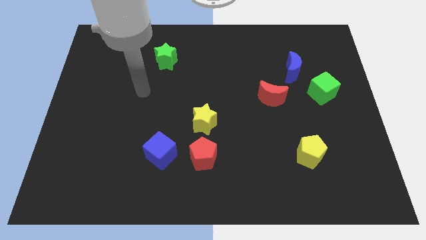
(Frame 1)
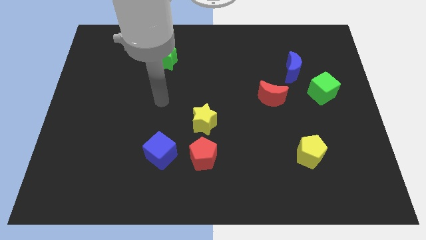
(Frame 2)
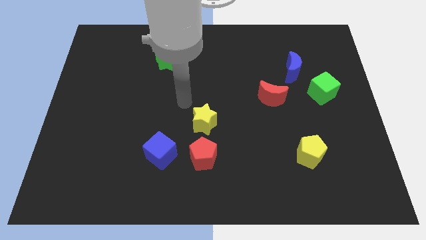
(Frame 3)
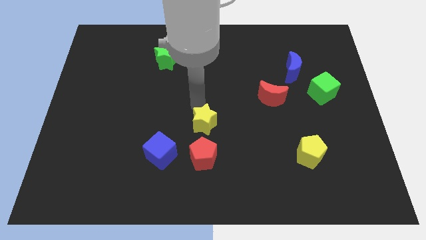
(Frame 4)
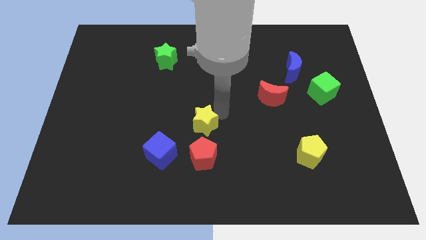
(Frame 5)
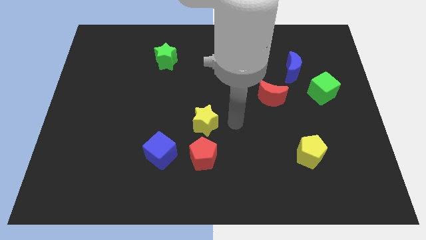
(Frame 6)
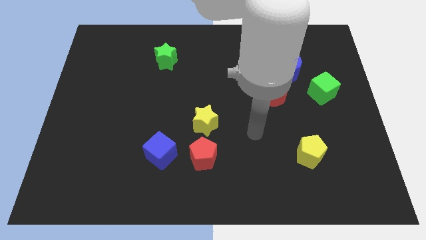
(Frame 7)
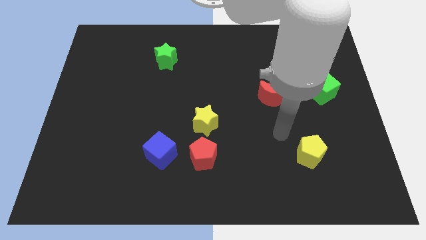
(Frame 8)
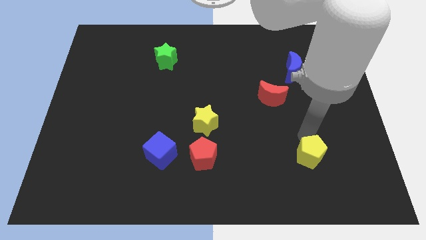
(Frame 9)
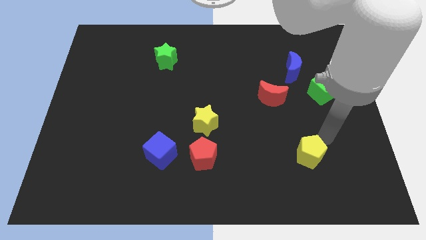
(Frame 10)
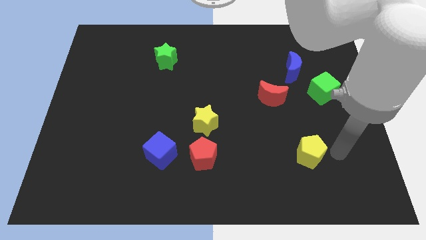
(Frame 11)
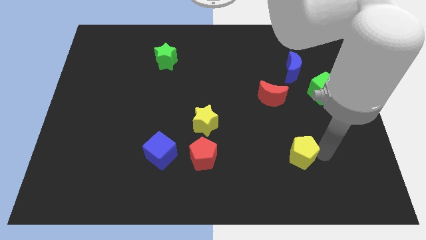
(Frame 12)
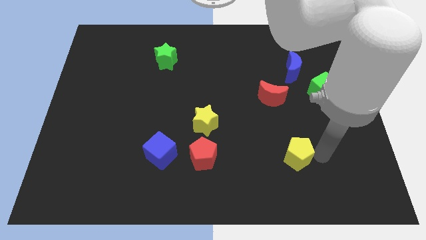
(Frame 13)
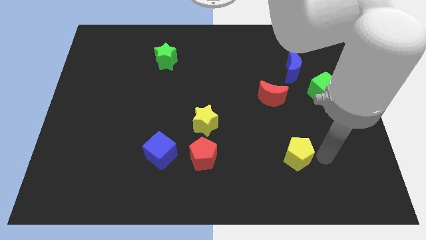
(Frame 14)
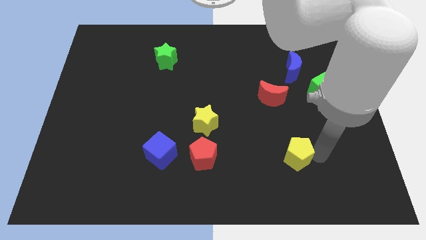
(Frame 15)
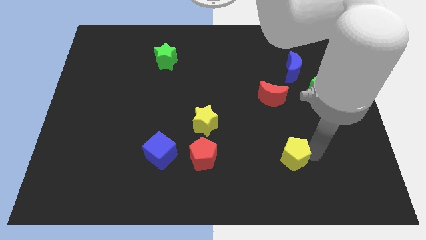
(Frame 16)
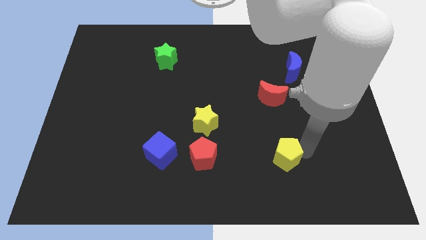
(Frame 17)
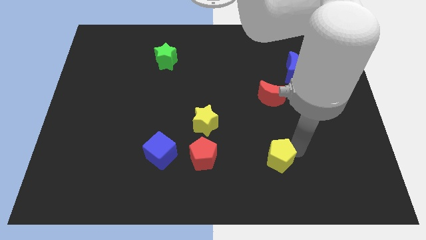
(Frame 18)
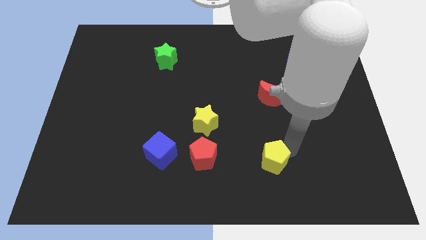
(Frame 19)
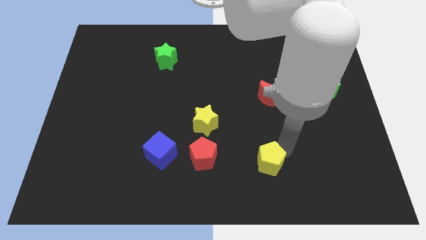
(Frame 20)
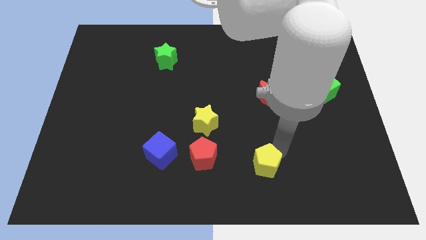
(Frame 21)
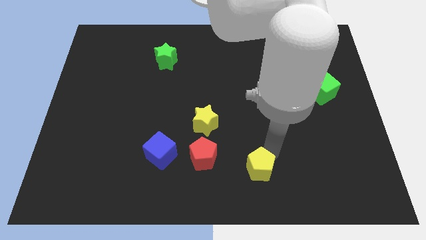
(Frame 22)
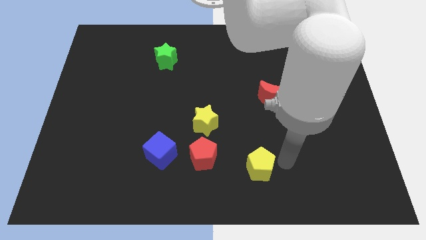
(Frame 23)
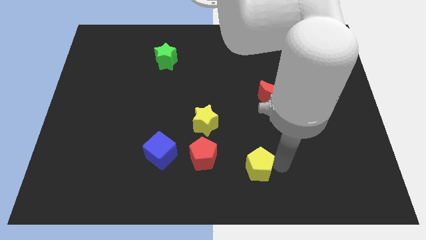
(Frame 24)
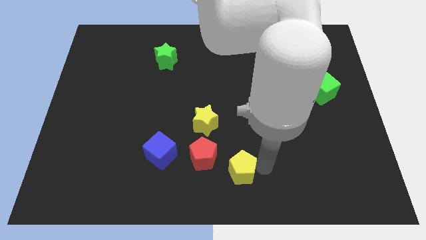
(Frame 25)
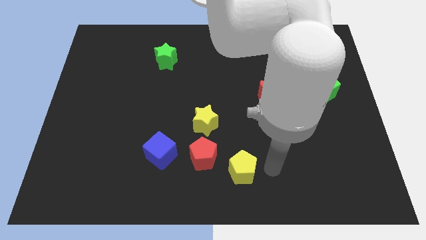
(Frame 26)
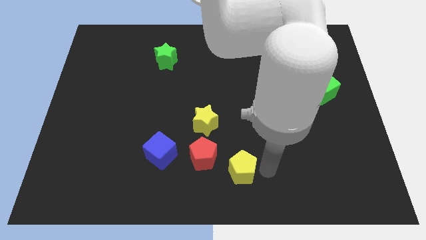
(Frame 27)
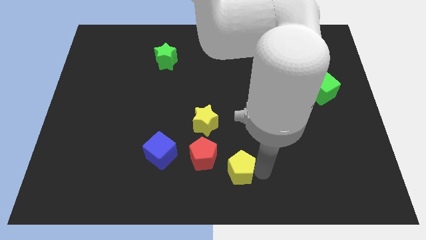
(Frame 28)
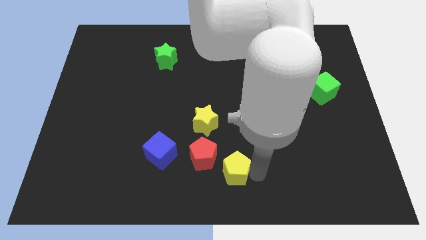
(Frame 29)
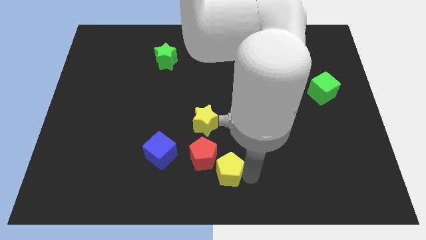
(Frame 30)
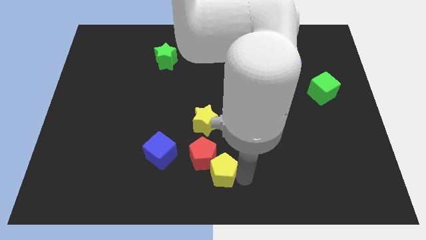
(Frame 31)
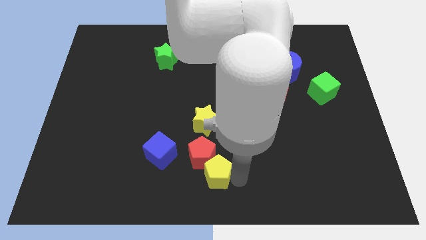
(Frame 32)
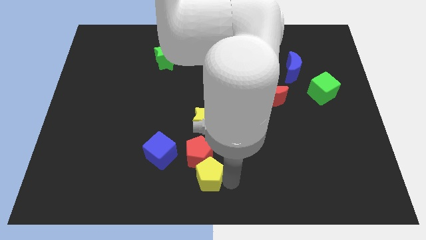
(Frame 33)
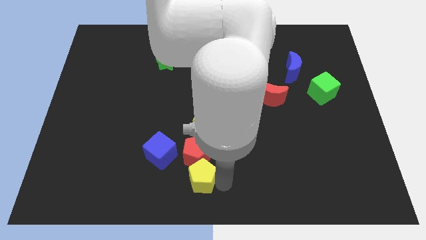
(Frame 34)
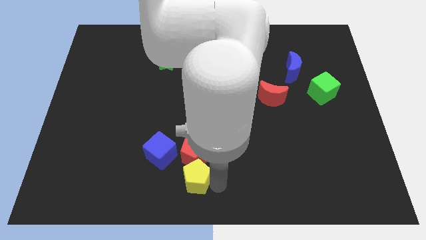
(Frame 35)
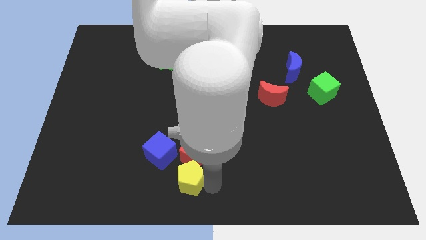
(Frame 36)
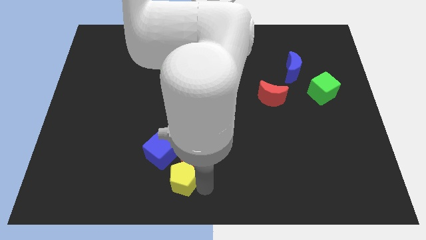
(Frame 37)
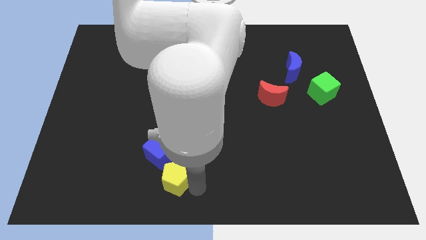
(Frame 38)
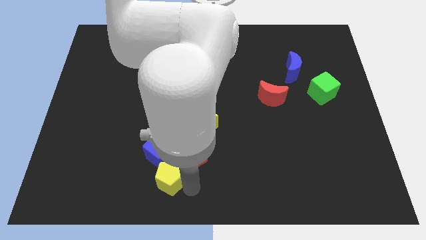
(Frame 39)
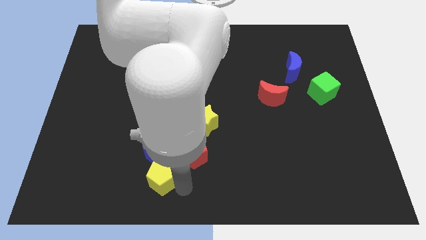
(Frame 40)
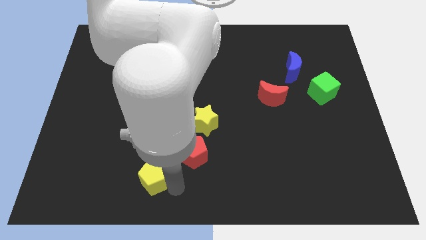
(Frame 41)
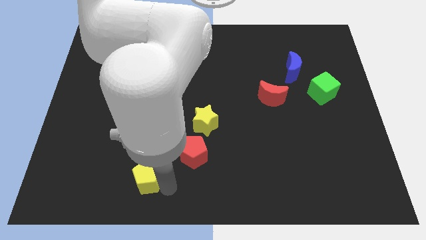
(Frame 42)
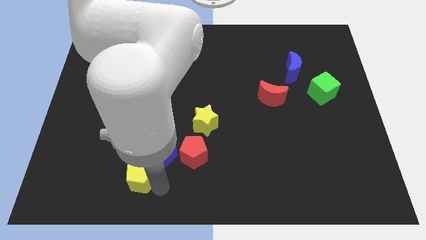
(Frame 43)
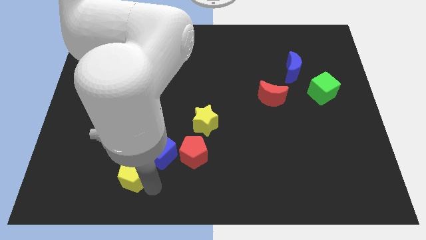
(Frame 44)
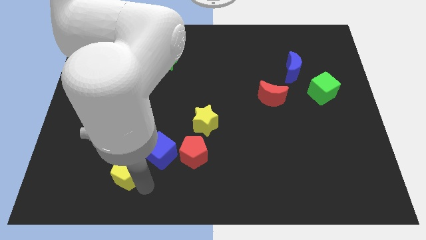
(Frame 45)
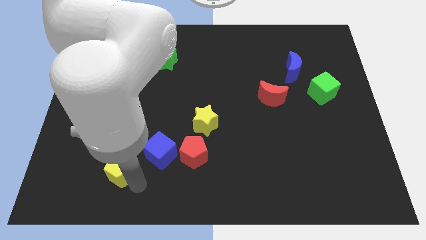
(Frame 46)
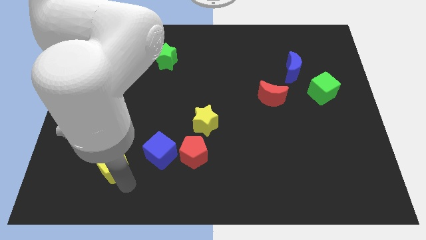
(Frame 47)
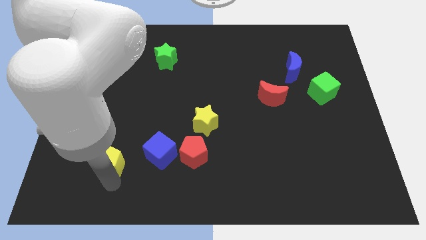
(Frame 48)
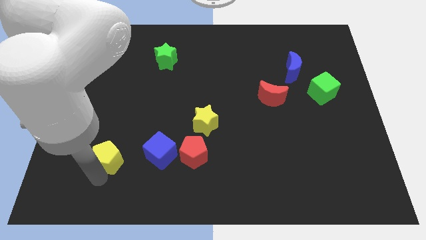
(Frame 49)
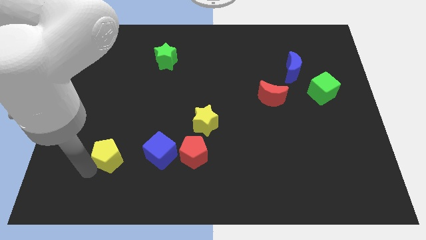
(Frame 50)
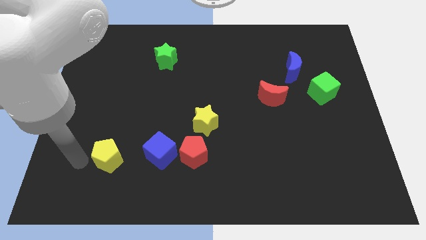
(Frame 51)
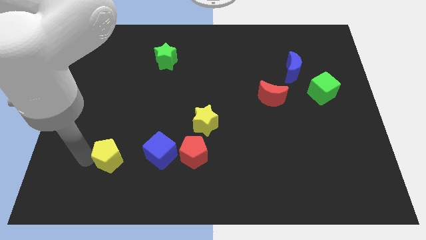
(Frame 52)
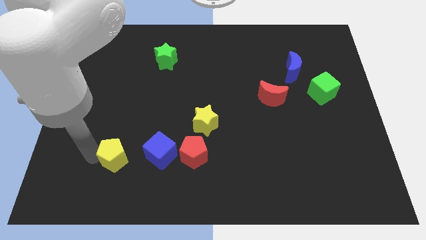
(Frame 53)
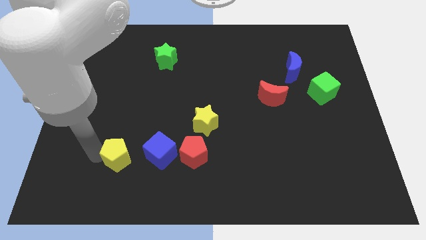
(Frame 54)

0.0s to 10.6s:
put the yellow pentagon just left of the red pentagon

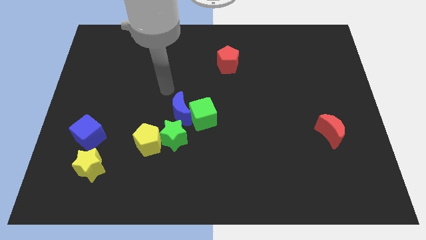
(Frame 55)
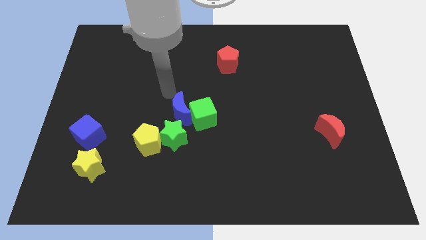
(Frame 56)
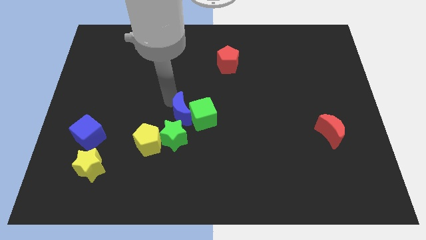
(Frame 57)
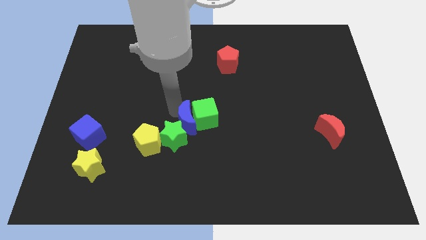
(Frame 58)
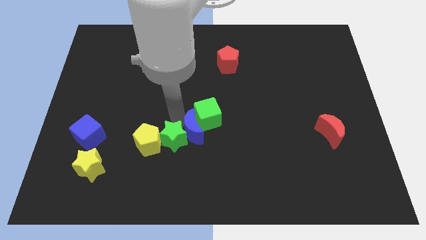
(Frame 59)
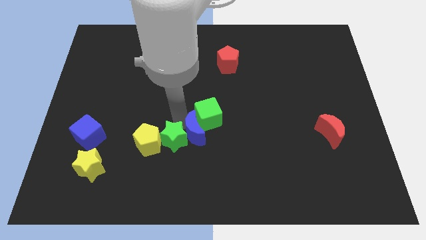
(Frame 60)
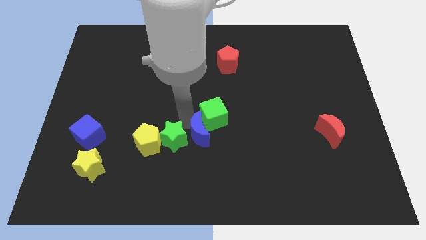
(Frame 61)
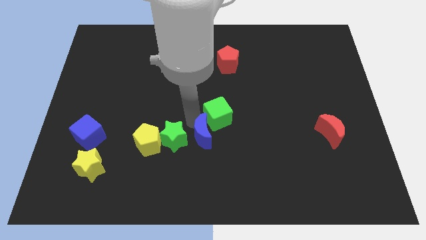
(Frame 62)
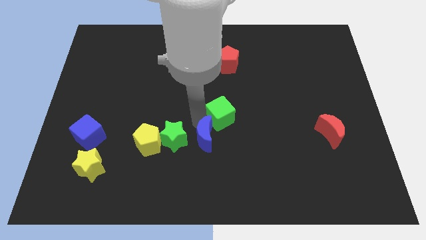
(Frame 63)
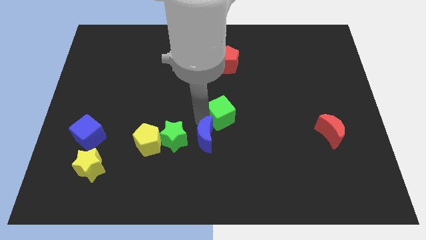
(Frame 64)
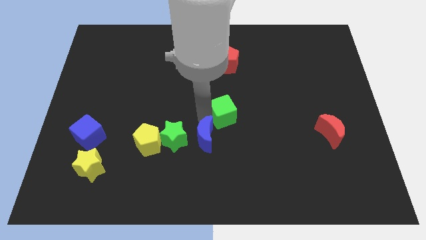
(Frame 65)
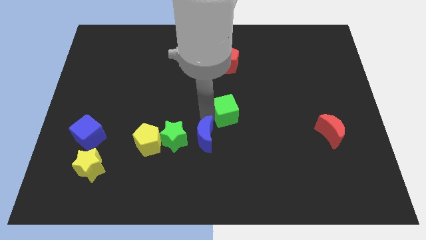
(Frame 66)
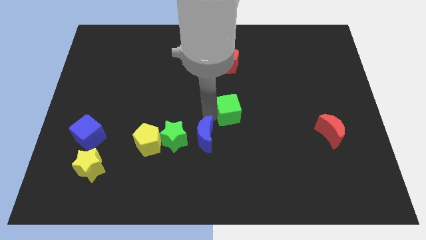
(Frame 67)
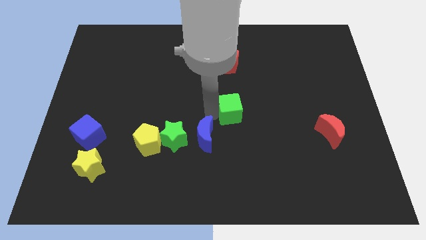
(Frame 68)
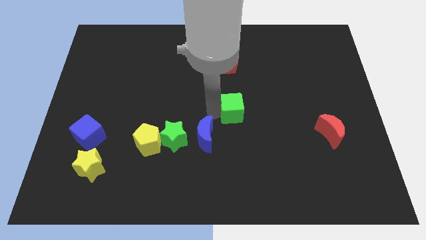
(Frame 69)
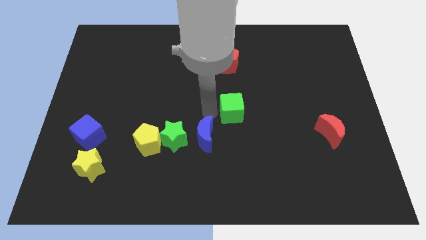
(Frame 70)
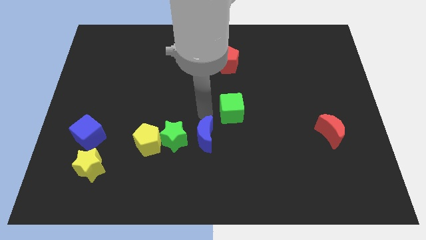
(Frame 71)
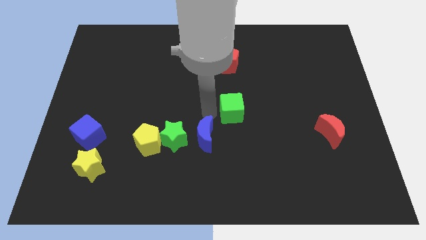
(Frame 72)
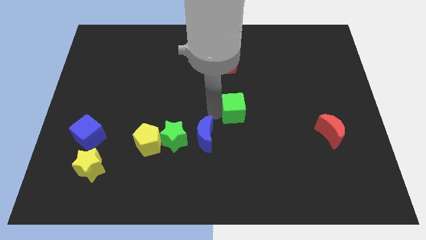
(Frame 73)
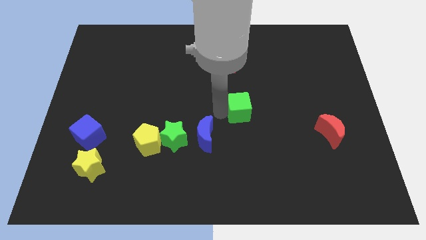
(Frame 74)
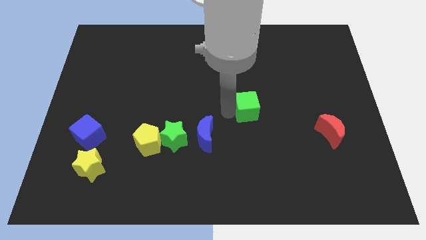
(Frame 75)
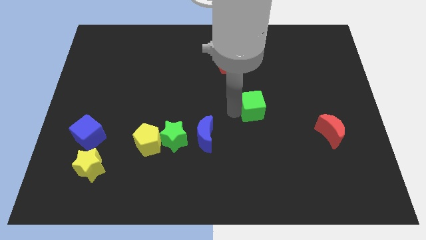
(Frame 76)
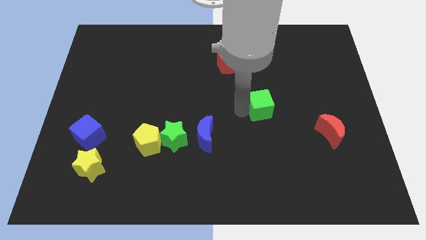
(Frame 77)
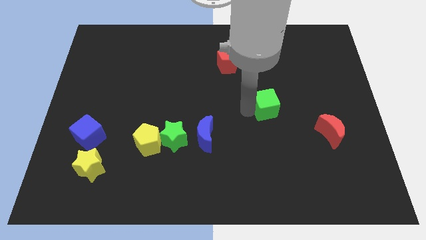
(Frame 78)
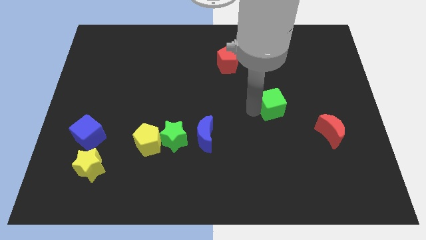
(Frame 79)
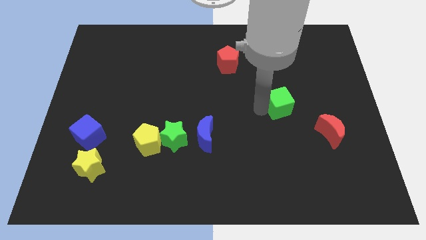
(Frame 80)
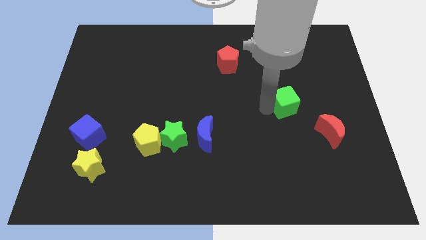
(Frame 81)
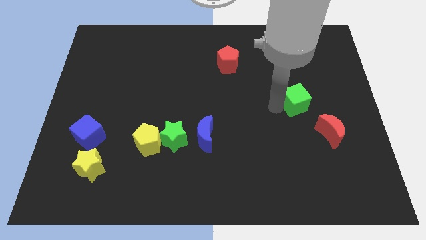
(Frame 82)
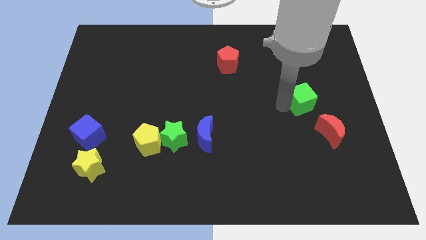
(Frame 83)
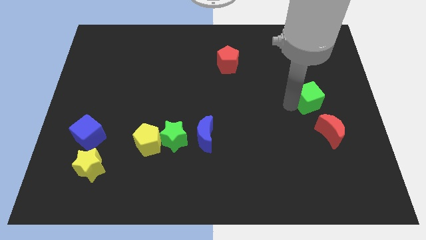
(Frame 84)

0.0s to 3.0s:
slide the green cube above the red moon
